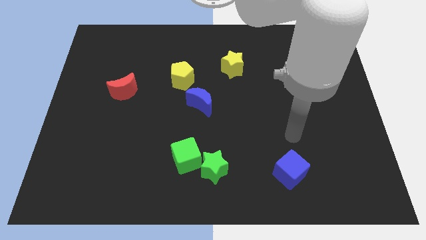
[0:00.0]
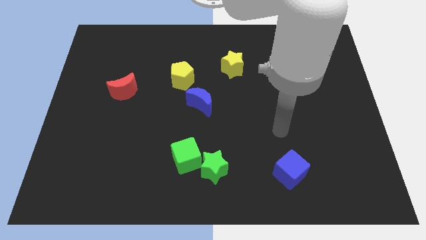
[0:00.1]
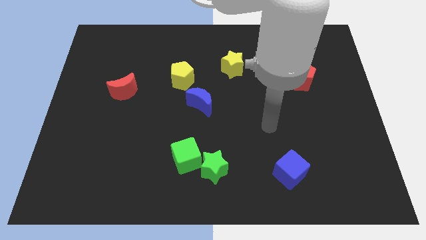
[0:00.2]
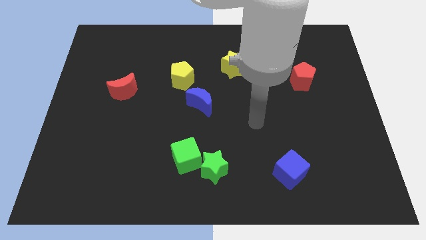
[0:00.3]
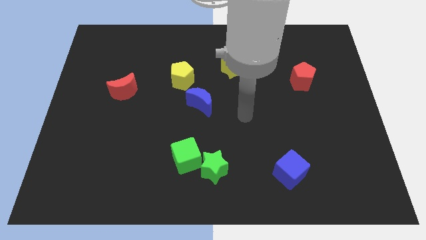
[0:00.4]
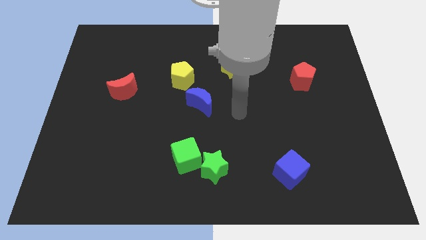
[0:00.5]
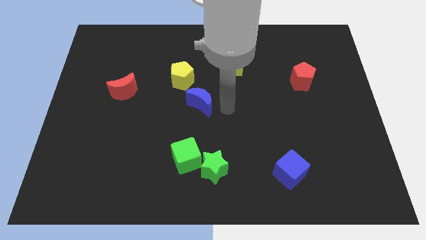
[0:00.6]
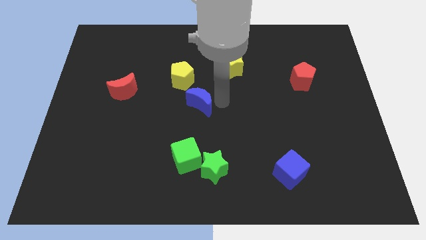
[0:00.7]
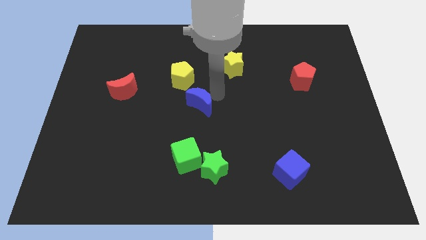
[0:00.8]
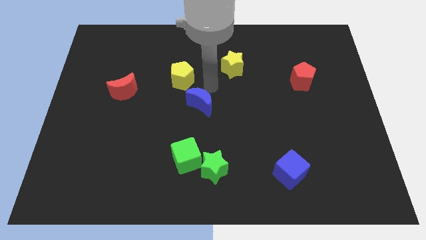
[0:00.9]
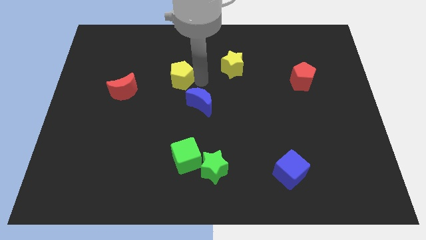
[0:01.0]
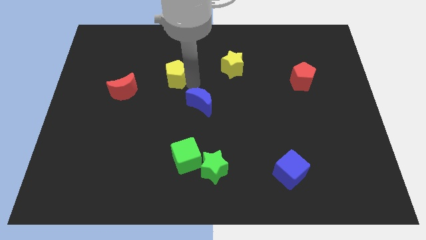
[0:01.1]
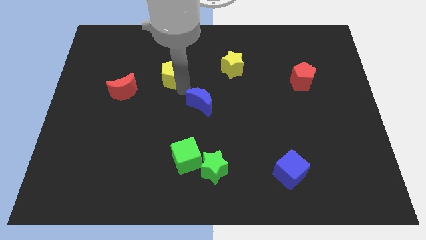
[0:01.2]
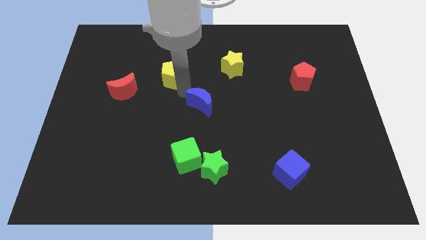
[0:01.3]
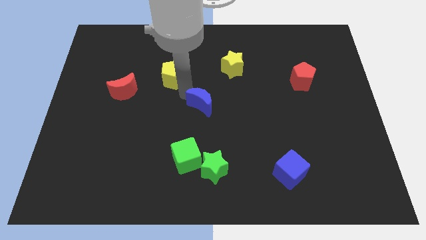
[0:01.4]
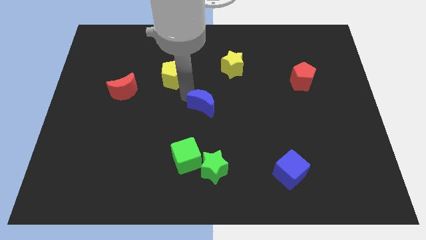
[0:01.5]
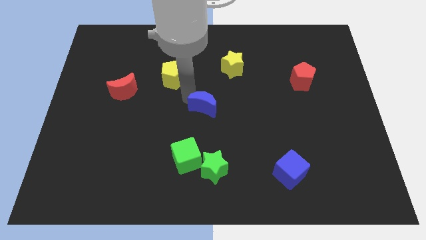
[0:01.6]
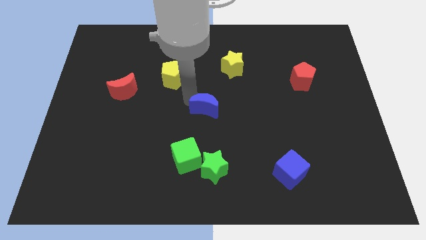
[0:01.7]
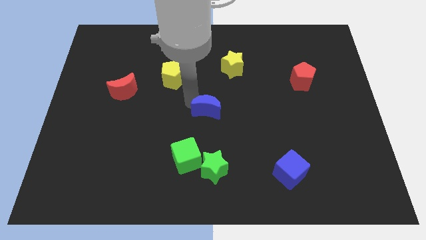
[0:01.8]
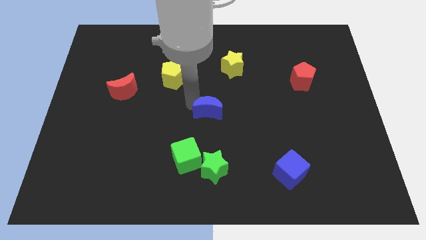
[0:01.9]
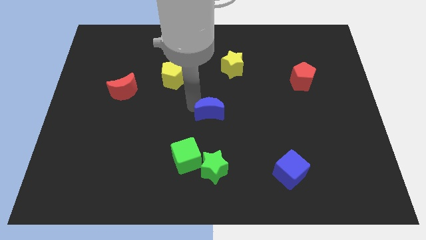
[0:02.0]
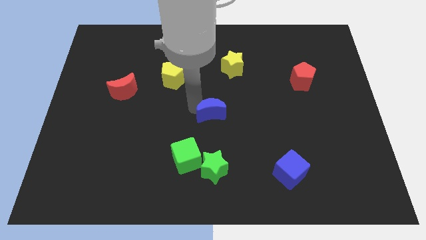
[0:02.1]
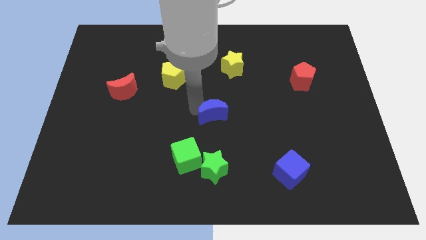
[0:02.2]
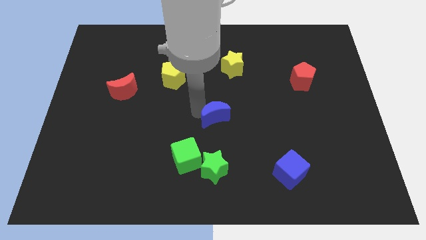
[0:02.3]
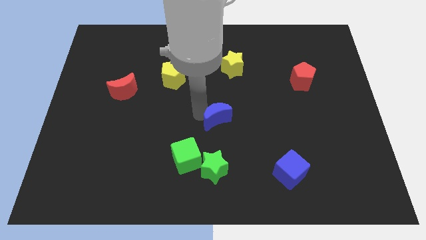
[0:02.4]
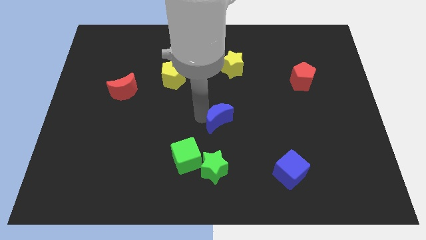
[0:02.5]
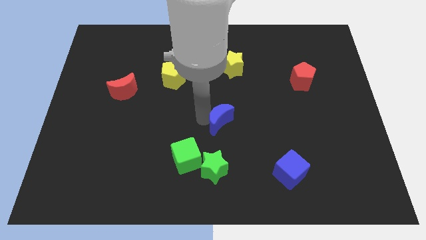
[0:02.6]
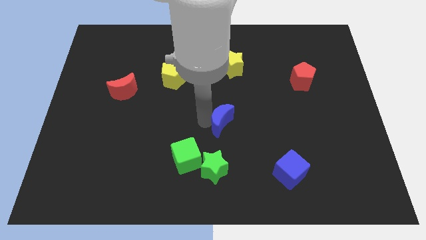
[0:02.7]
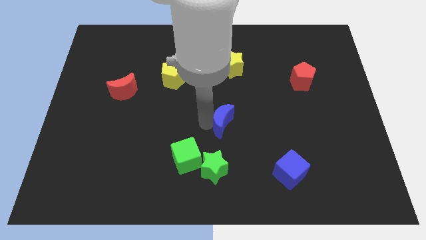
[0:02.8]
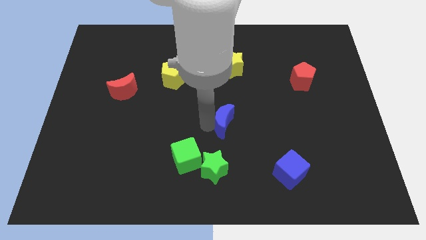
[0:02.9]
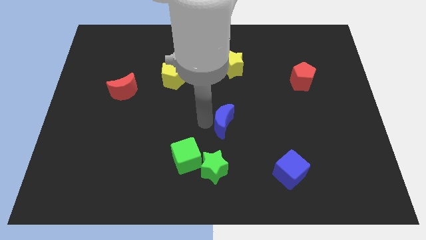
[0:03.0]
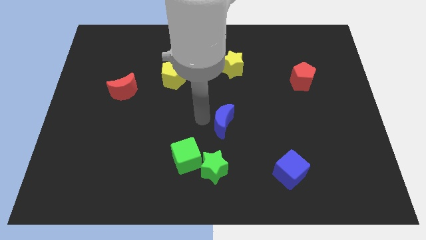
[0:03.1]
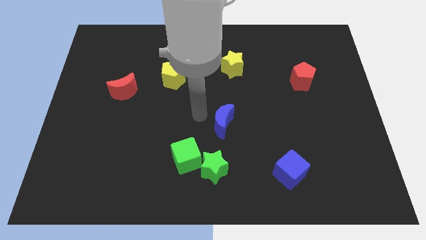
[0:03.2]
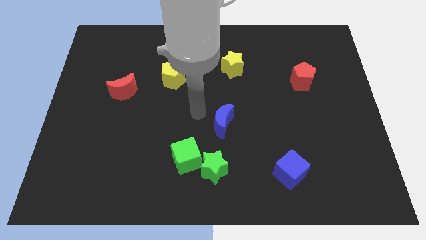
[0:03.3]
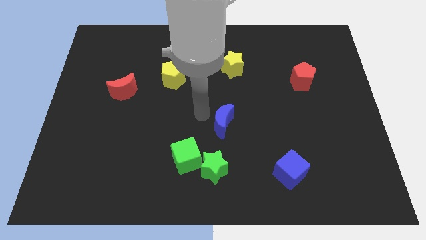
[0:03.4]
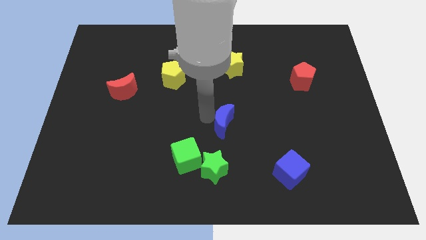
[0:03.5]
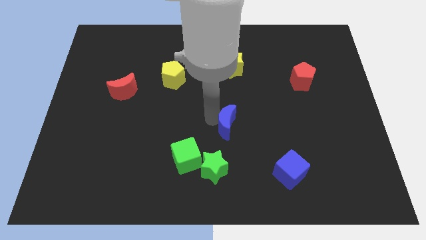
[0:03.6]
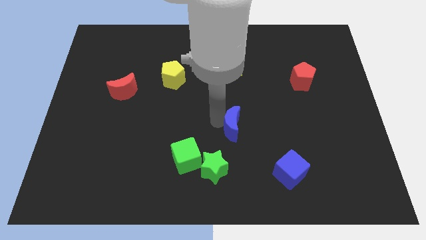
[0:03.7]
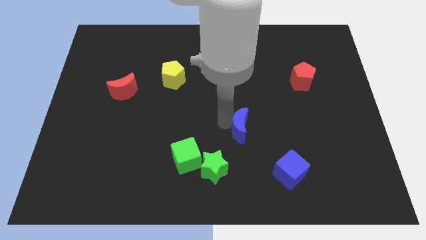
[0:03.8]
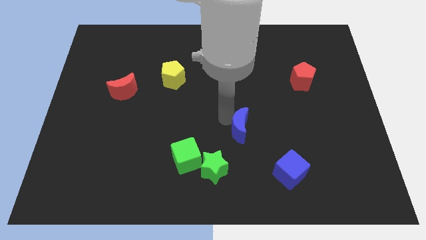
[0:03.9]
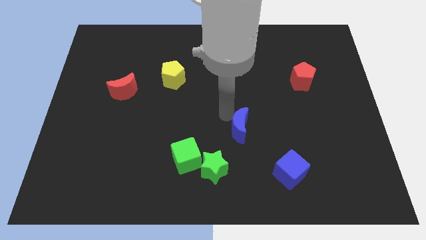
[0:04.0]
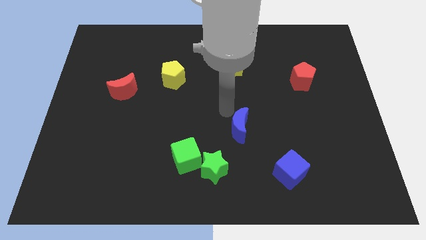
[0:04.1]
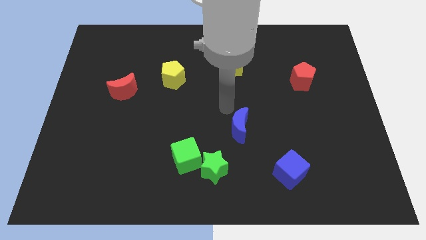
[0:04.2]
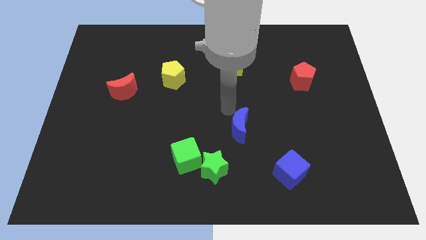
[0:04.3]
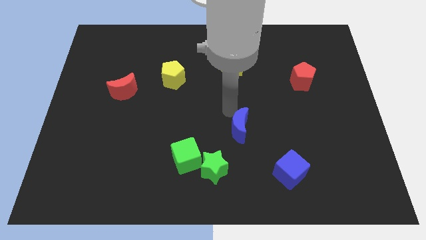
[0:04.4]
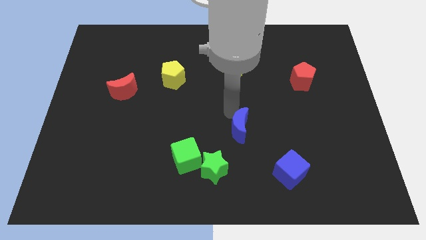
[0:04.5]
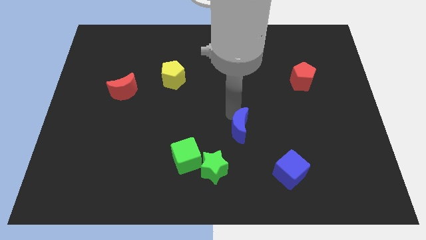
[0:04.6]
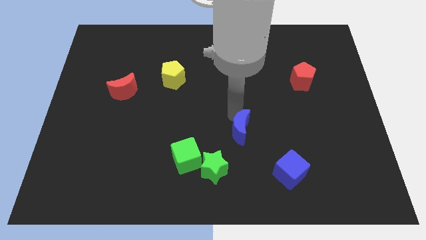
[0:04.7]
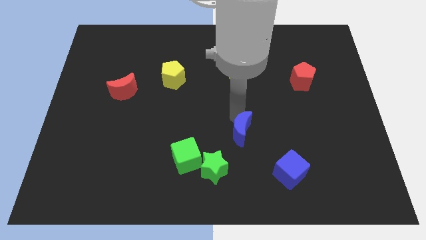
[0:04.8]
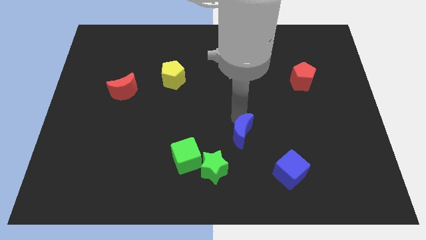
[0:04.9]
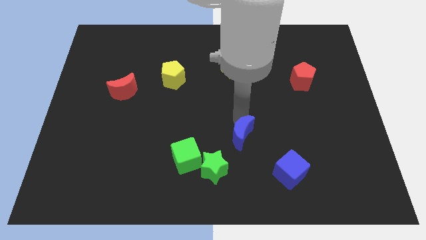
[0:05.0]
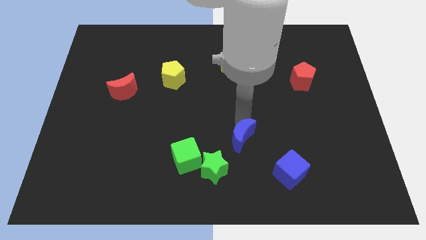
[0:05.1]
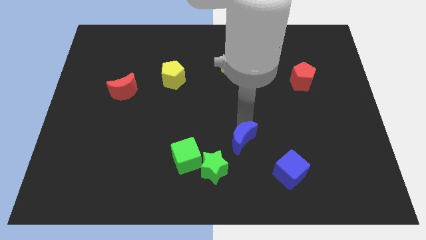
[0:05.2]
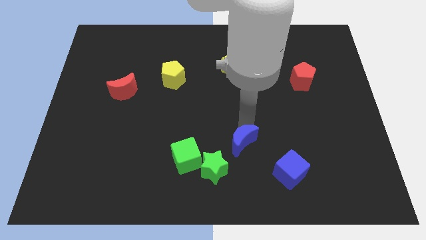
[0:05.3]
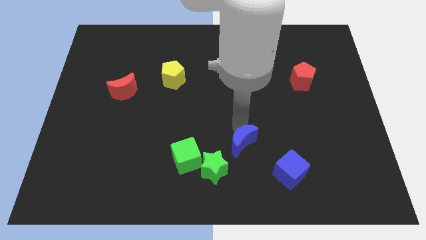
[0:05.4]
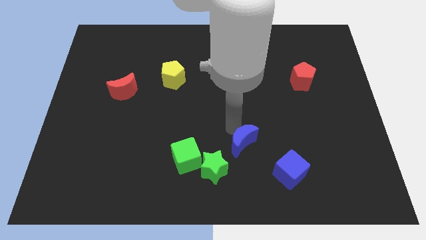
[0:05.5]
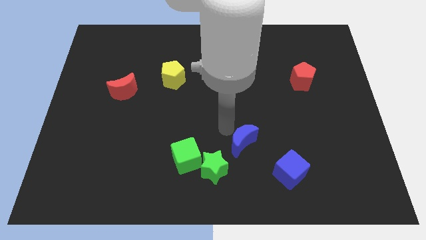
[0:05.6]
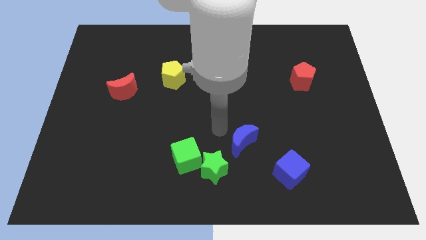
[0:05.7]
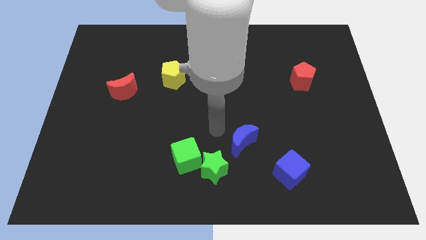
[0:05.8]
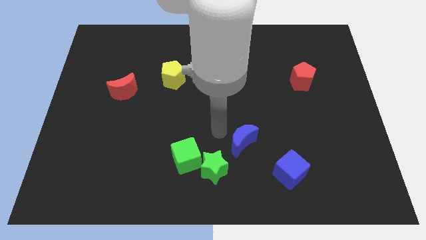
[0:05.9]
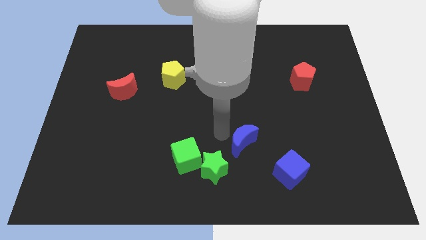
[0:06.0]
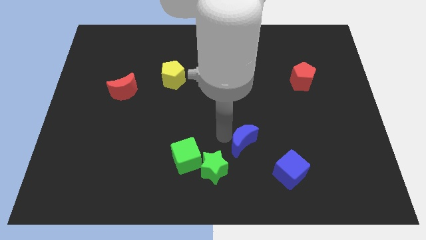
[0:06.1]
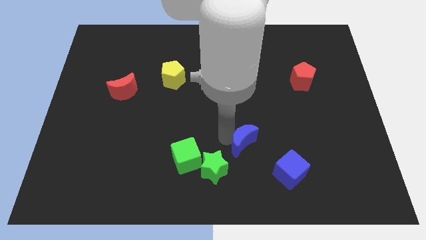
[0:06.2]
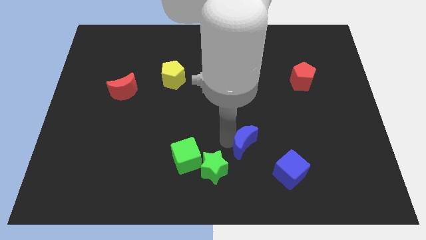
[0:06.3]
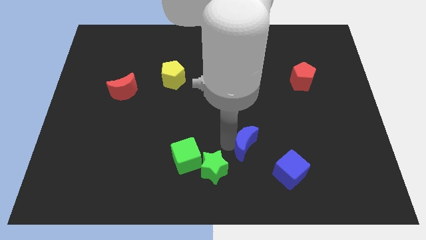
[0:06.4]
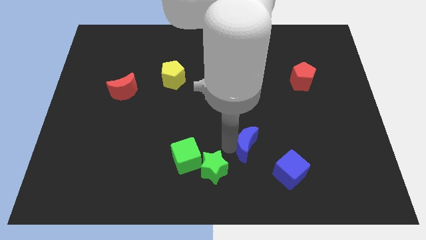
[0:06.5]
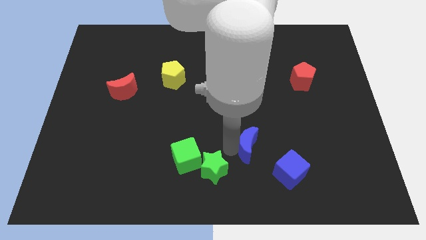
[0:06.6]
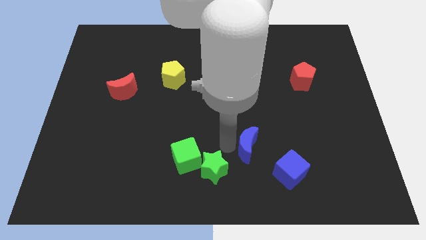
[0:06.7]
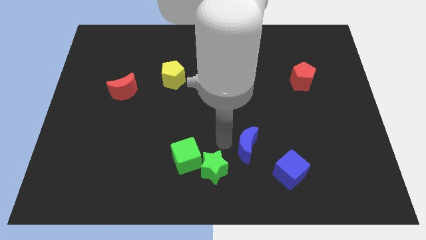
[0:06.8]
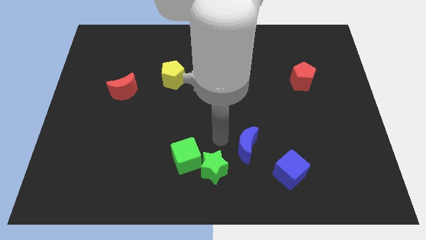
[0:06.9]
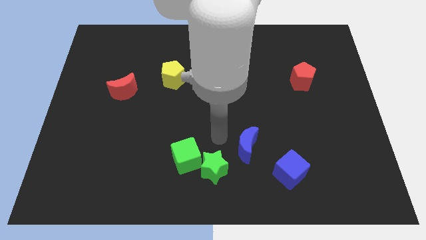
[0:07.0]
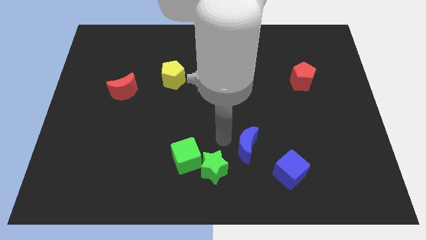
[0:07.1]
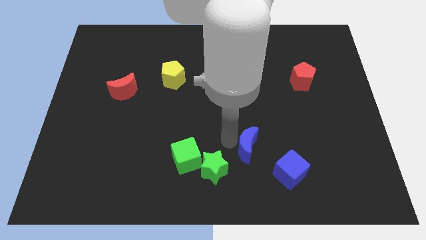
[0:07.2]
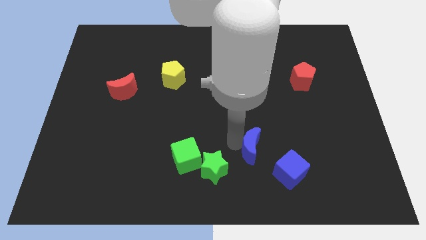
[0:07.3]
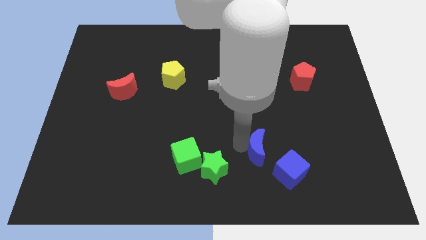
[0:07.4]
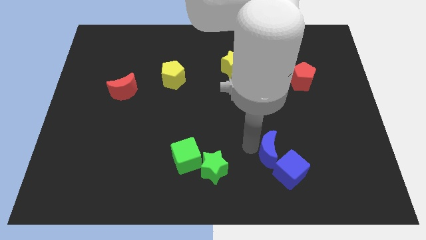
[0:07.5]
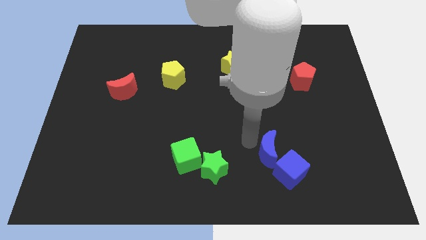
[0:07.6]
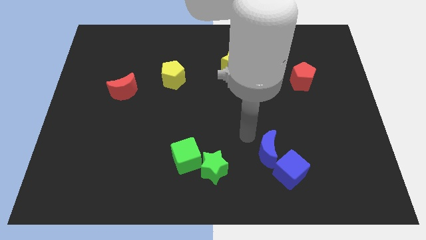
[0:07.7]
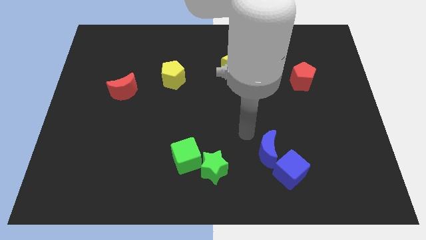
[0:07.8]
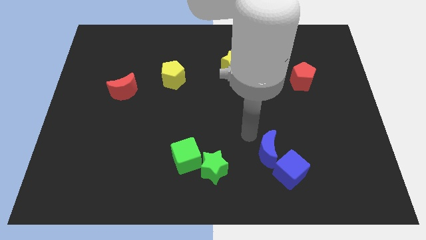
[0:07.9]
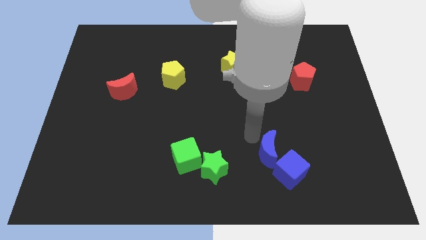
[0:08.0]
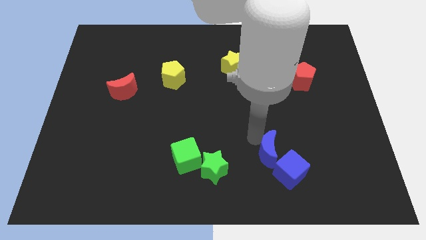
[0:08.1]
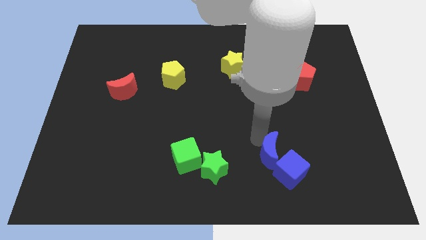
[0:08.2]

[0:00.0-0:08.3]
push the blue moon to the blue cube
